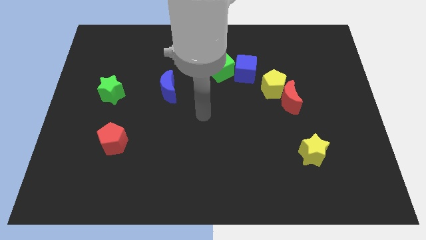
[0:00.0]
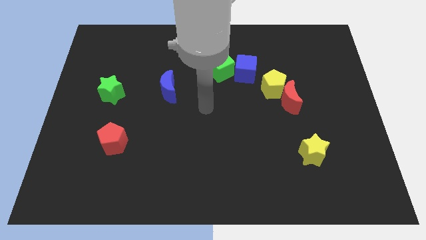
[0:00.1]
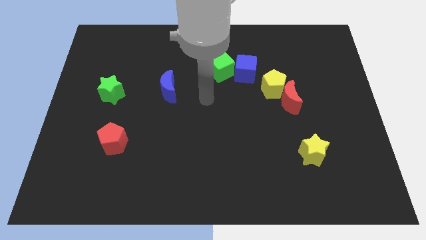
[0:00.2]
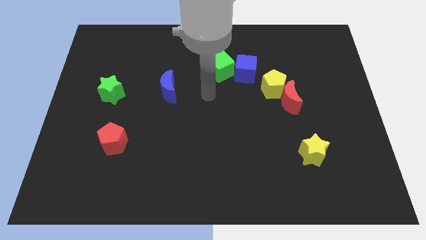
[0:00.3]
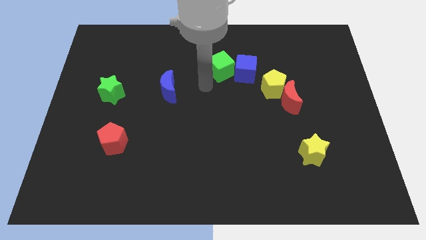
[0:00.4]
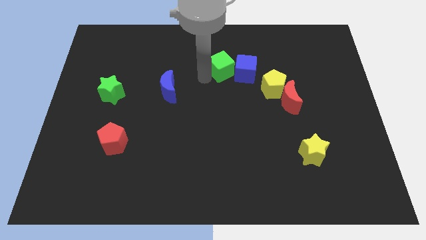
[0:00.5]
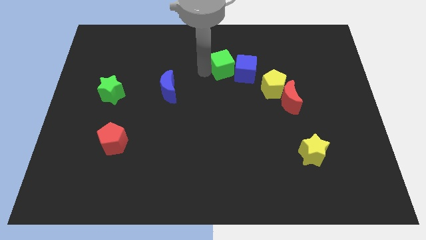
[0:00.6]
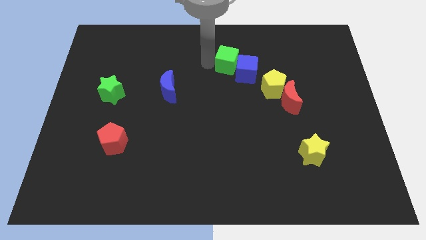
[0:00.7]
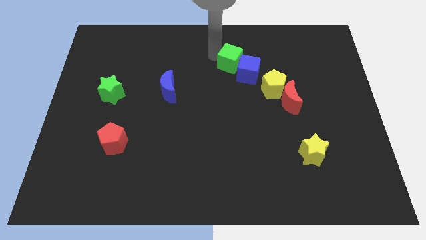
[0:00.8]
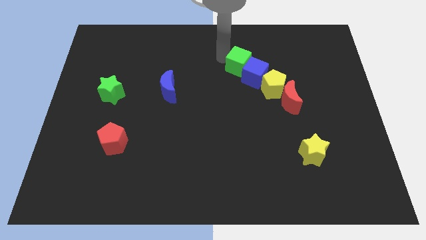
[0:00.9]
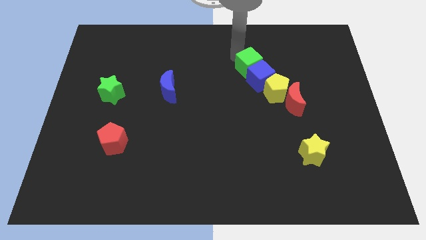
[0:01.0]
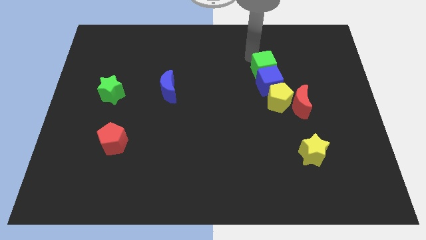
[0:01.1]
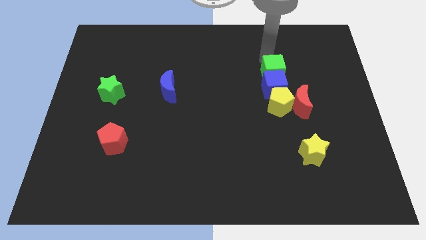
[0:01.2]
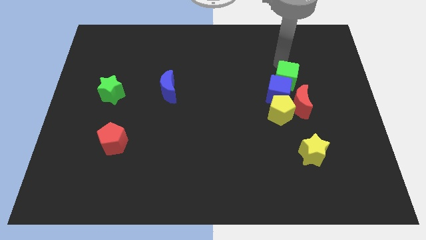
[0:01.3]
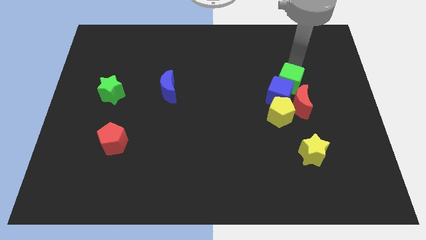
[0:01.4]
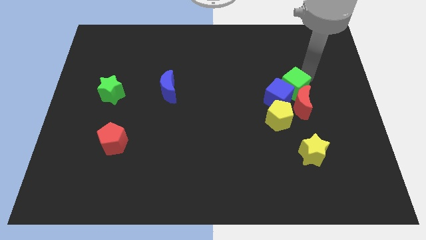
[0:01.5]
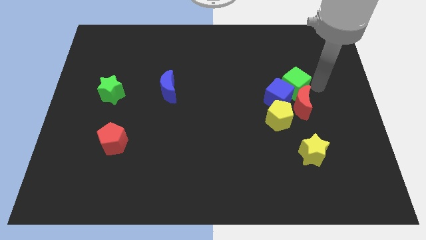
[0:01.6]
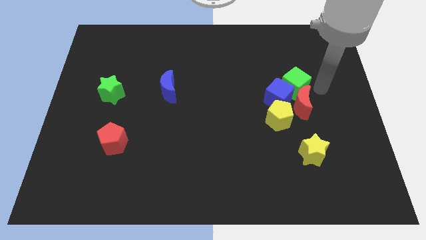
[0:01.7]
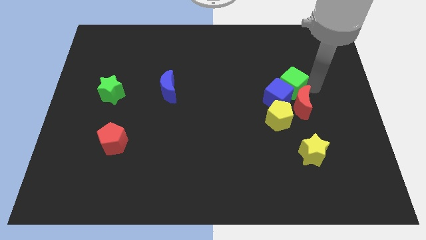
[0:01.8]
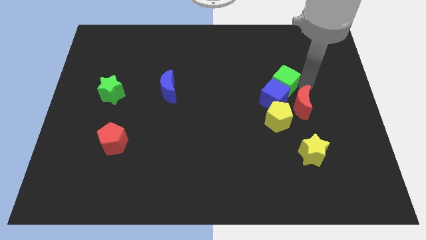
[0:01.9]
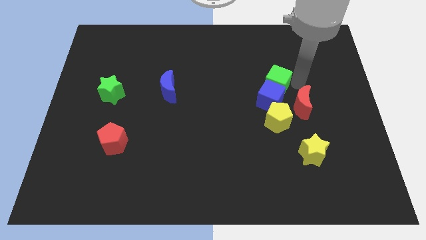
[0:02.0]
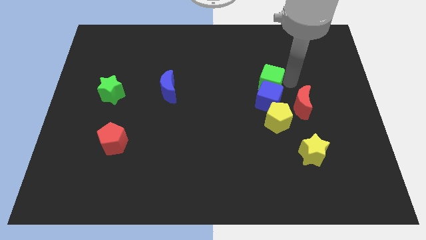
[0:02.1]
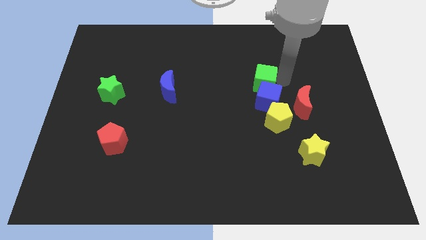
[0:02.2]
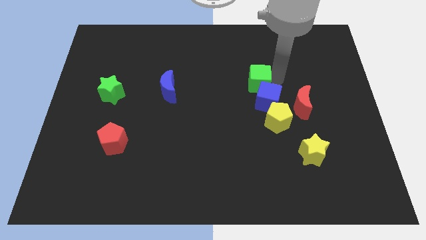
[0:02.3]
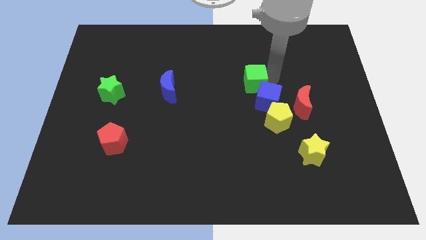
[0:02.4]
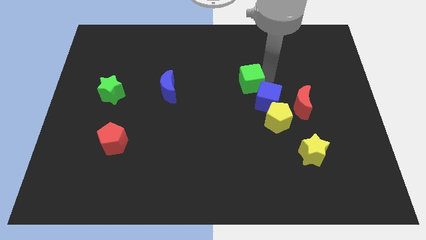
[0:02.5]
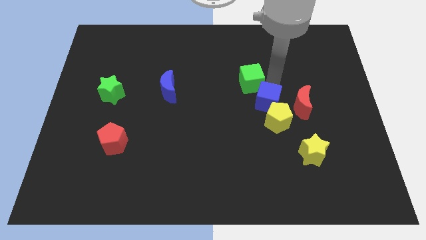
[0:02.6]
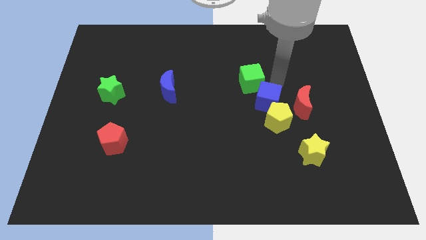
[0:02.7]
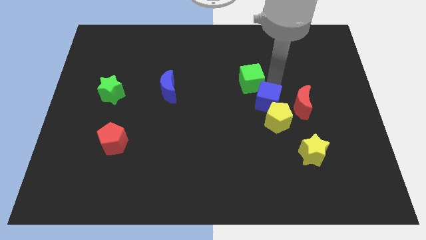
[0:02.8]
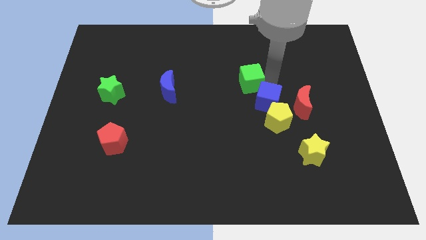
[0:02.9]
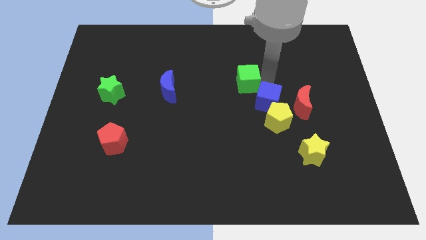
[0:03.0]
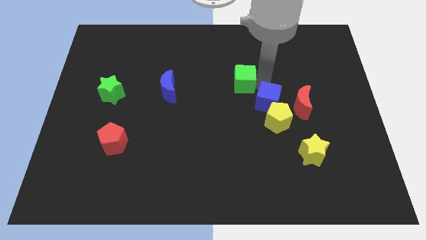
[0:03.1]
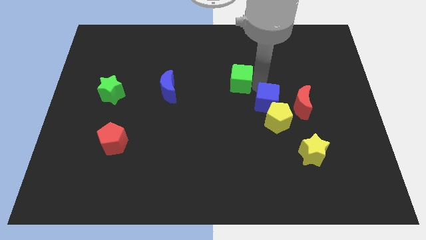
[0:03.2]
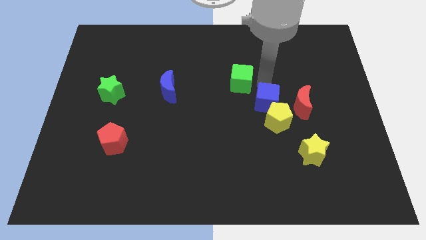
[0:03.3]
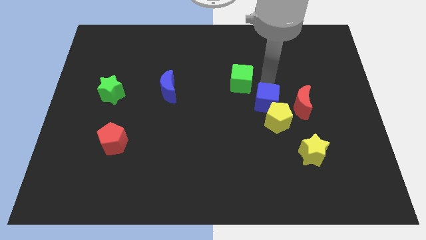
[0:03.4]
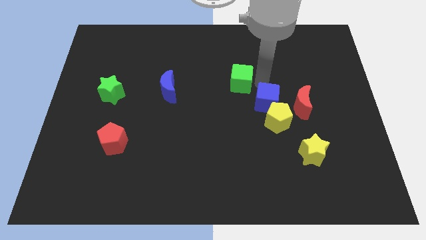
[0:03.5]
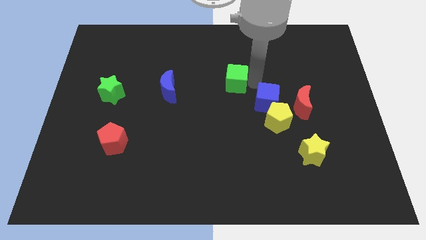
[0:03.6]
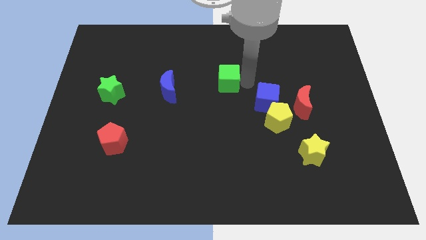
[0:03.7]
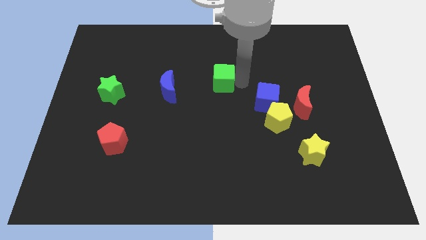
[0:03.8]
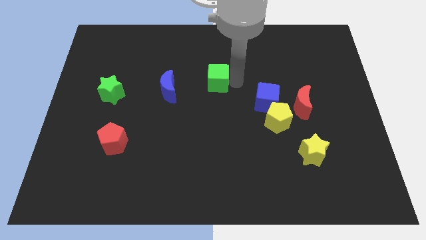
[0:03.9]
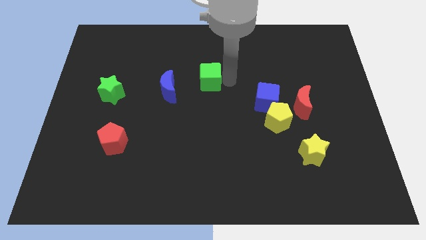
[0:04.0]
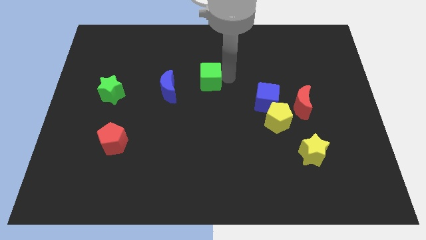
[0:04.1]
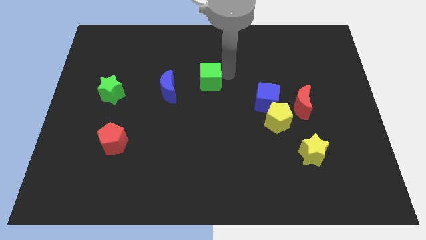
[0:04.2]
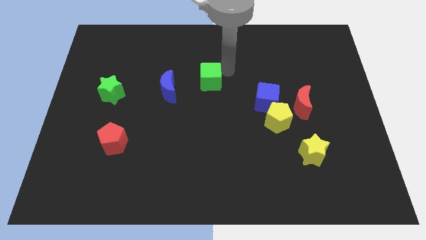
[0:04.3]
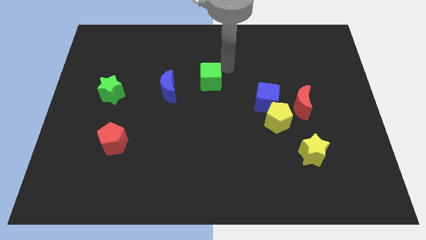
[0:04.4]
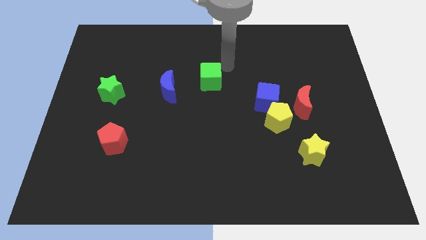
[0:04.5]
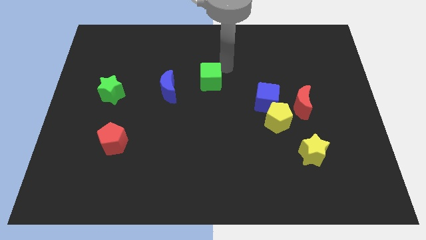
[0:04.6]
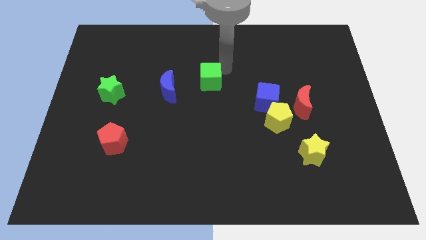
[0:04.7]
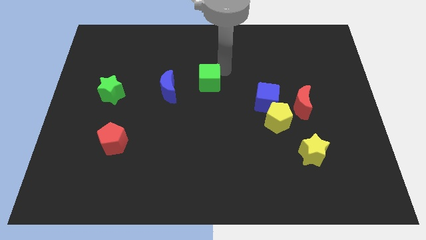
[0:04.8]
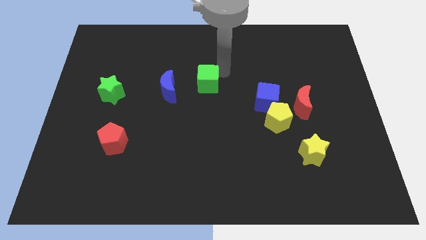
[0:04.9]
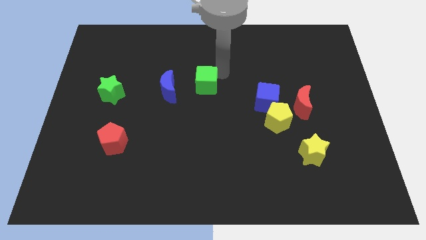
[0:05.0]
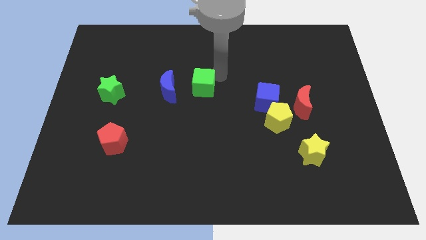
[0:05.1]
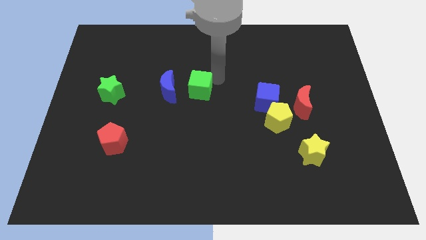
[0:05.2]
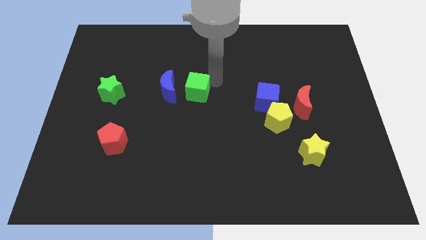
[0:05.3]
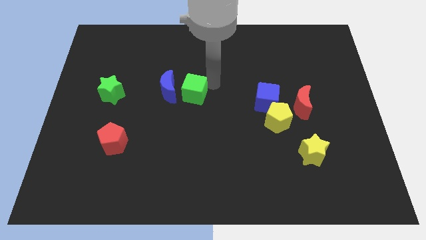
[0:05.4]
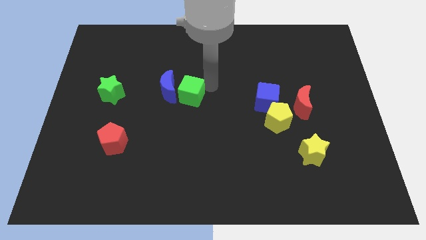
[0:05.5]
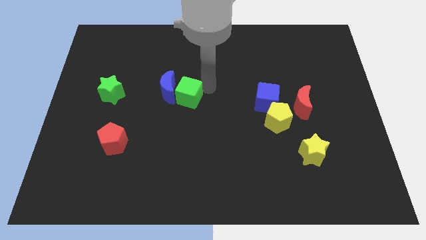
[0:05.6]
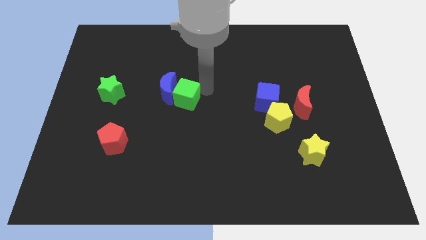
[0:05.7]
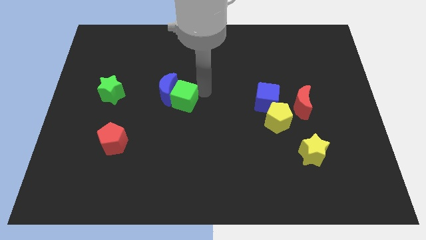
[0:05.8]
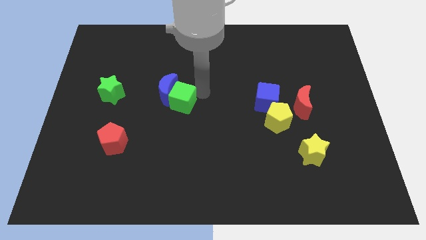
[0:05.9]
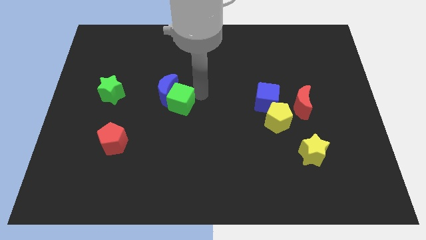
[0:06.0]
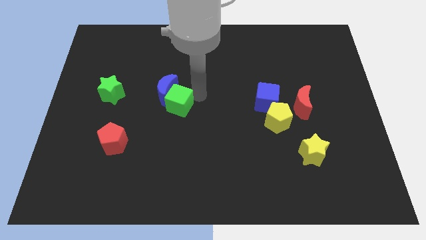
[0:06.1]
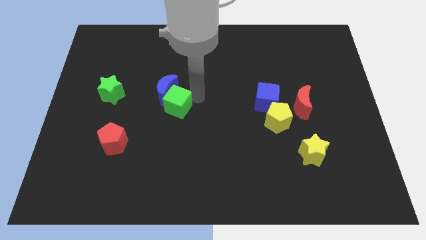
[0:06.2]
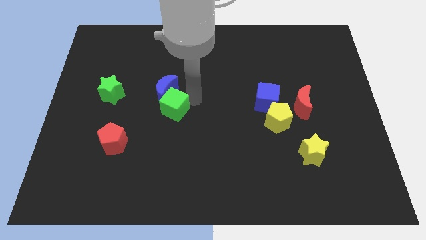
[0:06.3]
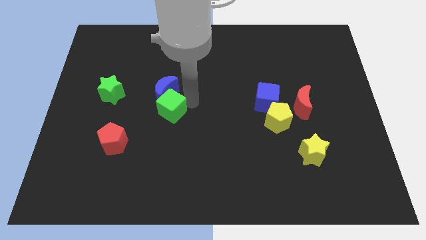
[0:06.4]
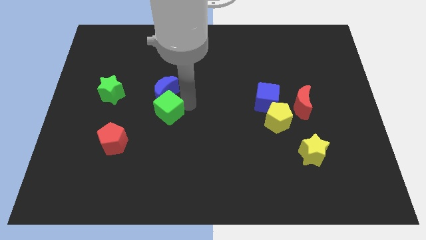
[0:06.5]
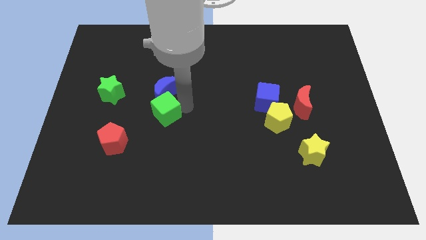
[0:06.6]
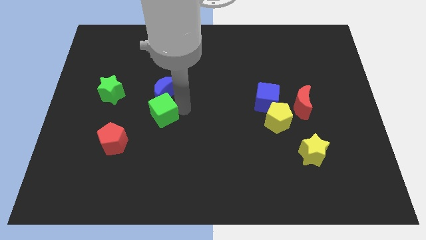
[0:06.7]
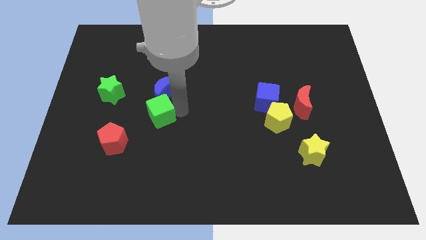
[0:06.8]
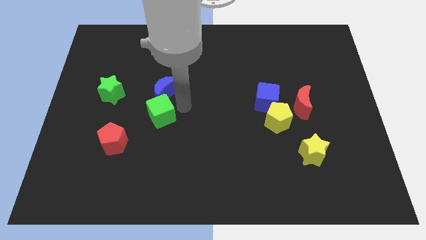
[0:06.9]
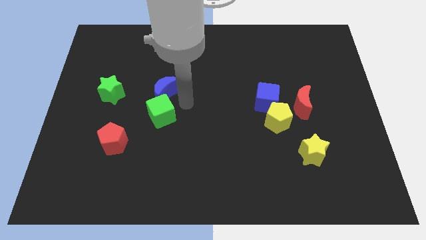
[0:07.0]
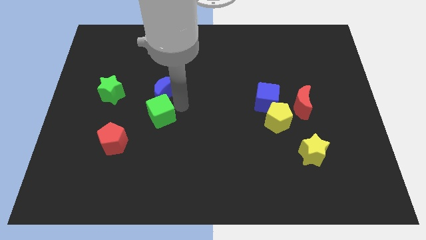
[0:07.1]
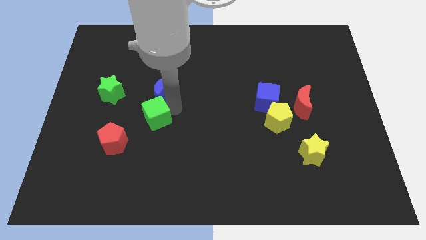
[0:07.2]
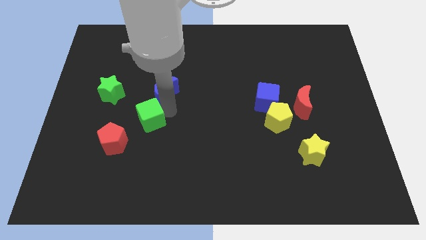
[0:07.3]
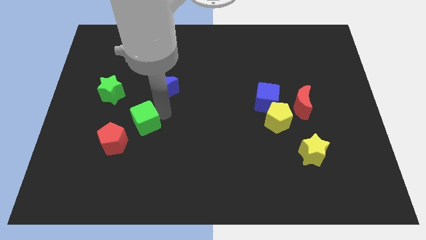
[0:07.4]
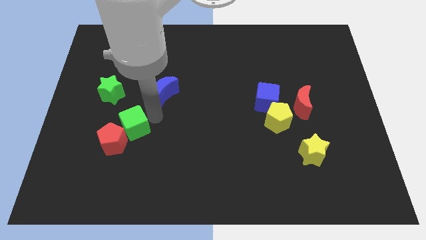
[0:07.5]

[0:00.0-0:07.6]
move the green cube to the red pentagon
